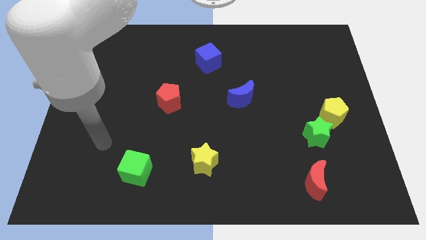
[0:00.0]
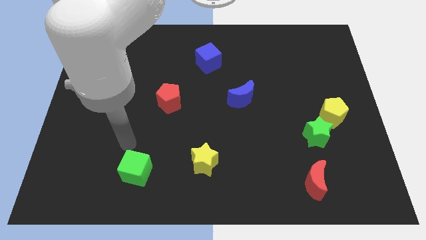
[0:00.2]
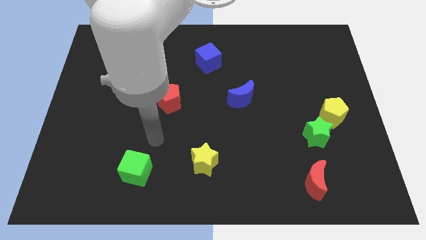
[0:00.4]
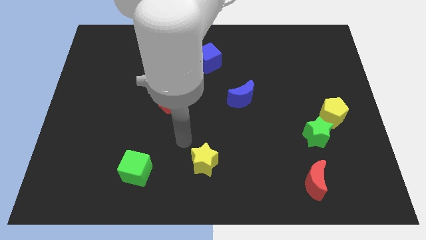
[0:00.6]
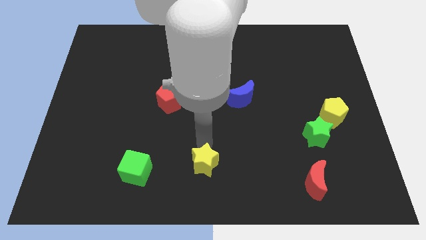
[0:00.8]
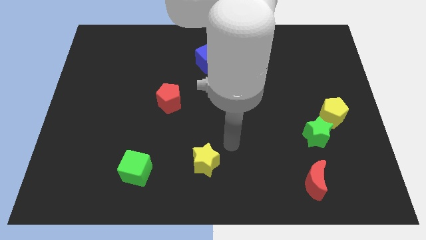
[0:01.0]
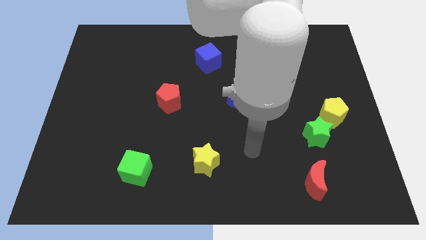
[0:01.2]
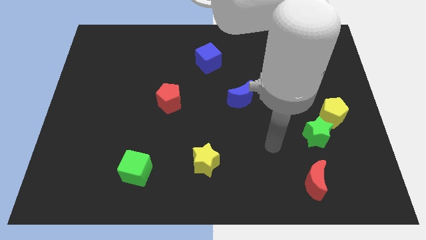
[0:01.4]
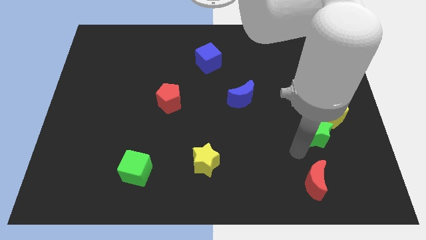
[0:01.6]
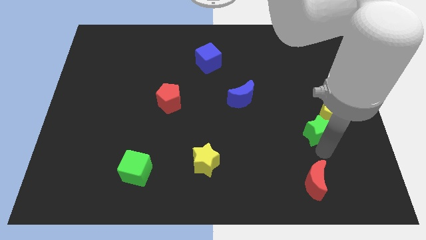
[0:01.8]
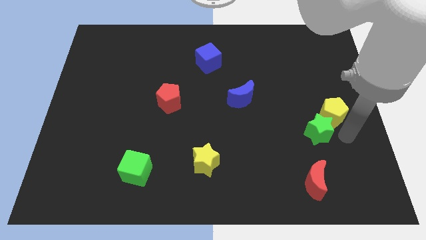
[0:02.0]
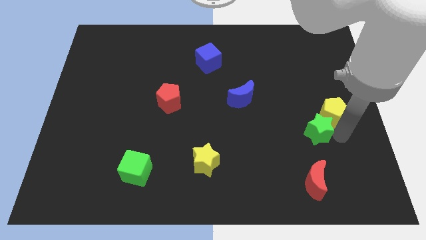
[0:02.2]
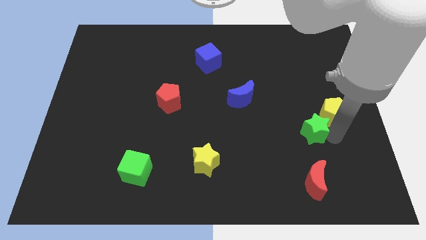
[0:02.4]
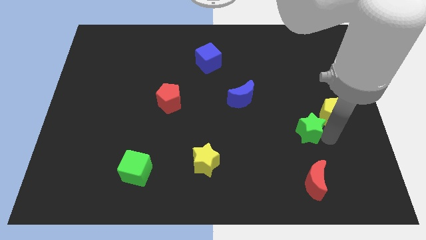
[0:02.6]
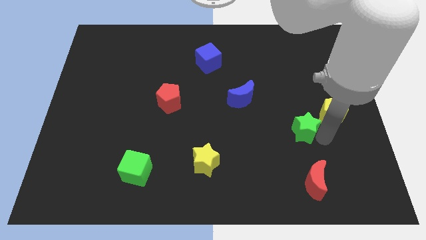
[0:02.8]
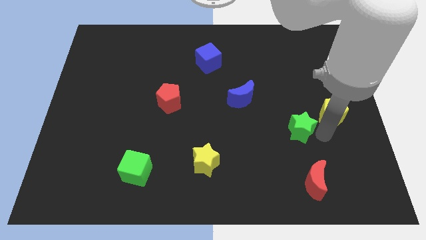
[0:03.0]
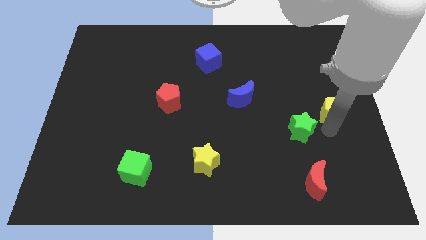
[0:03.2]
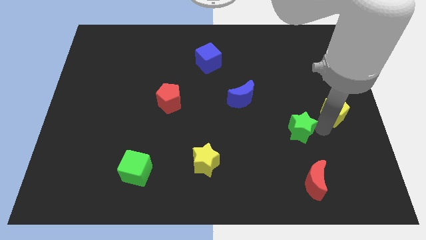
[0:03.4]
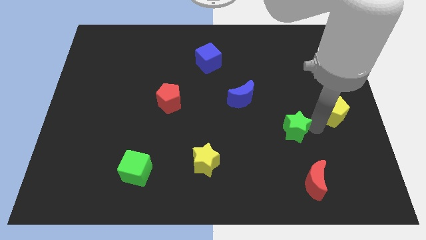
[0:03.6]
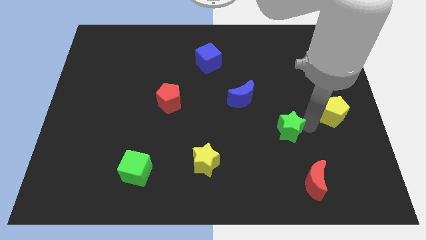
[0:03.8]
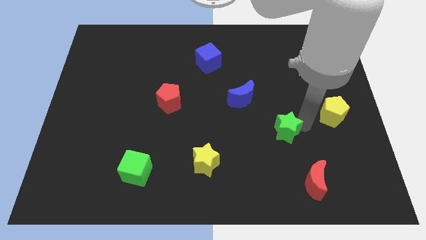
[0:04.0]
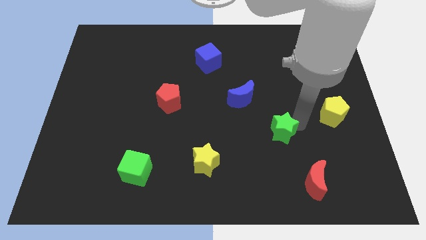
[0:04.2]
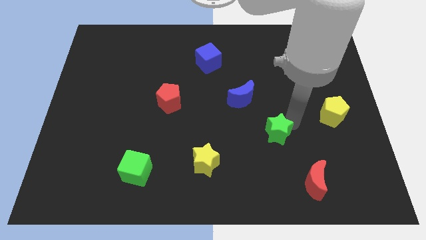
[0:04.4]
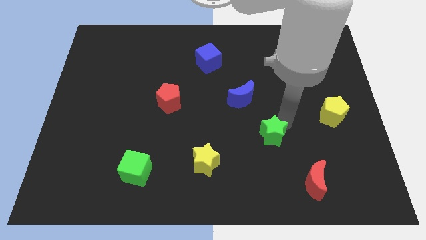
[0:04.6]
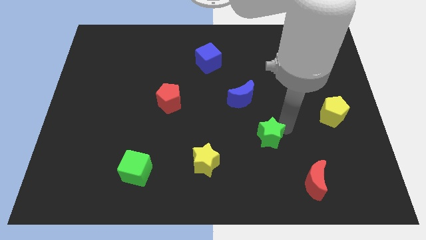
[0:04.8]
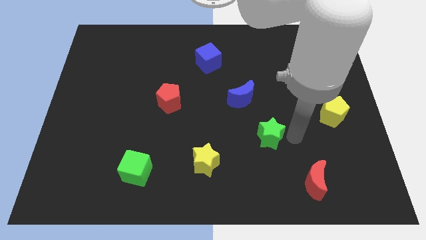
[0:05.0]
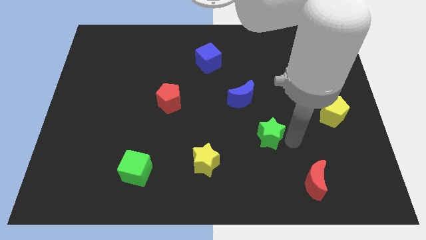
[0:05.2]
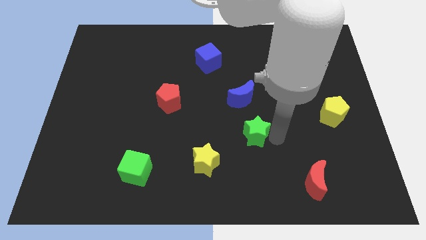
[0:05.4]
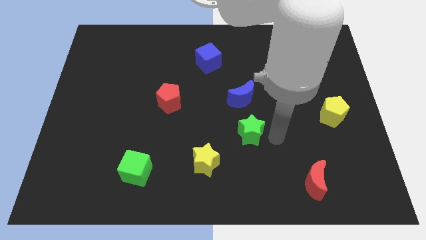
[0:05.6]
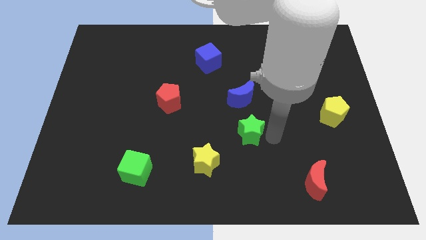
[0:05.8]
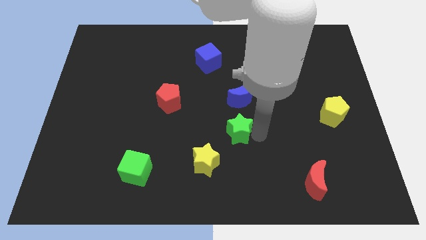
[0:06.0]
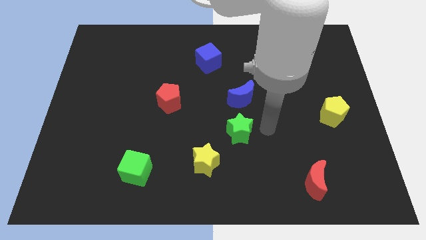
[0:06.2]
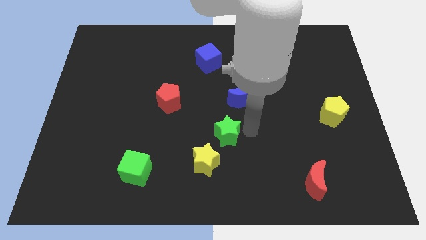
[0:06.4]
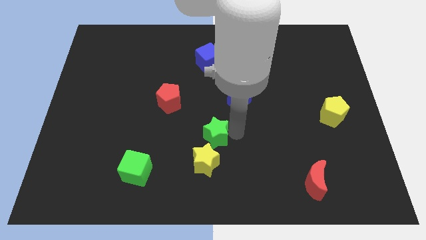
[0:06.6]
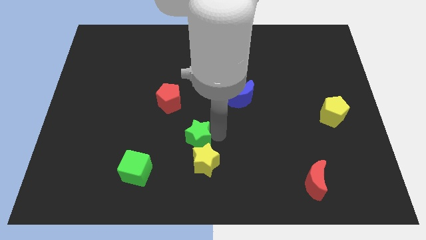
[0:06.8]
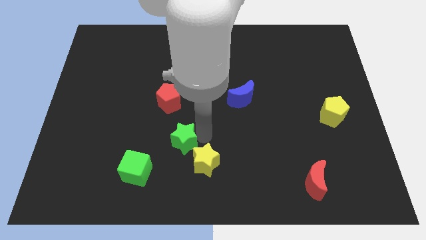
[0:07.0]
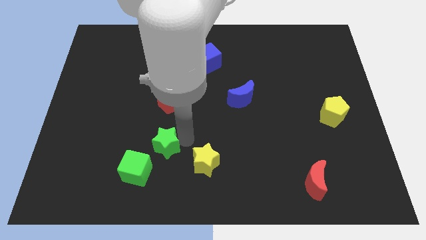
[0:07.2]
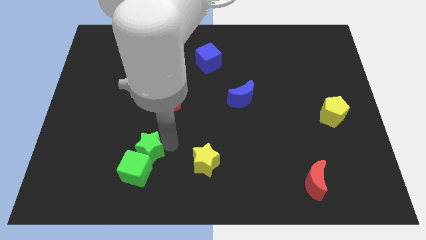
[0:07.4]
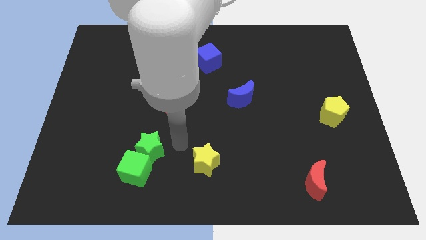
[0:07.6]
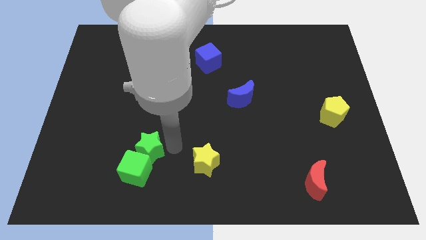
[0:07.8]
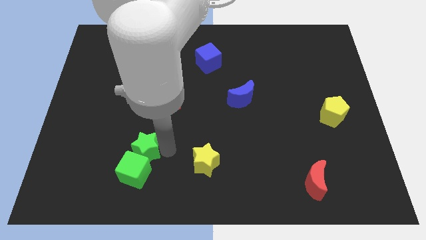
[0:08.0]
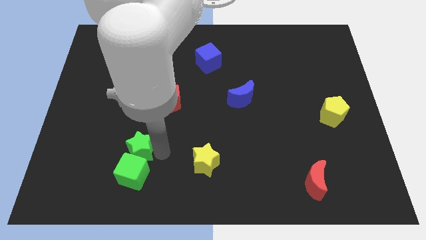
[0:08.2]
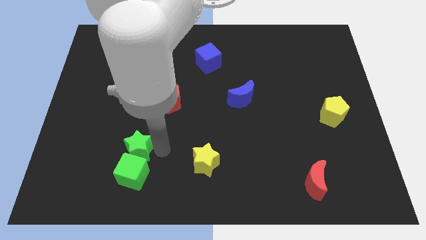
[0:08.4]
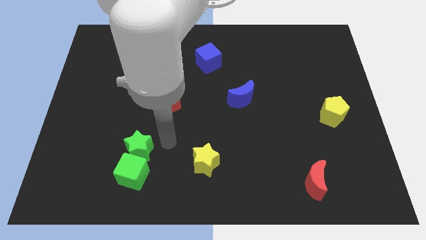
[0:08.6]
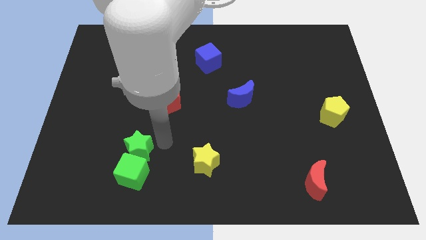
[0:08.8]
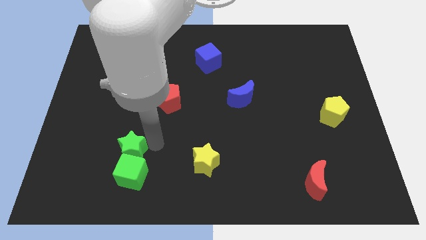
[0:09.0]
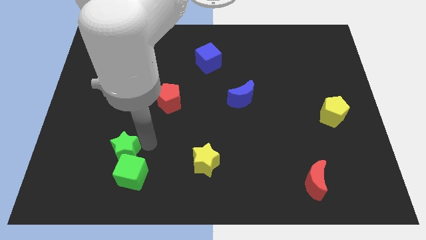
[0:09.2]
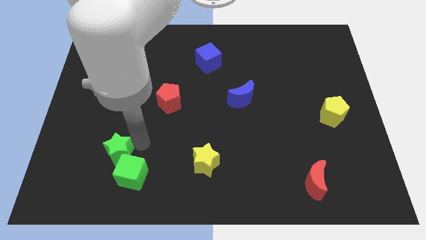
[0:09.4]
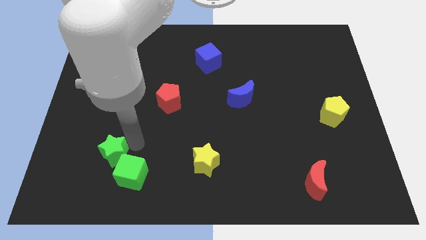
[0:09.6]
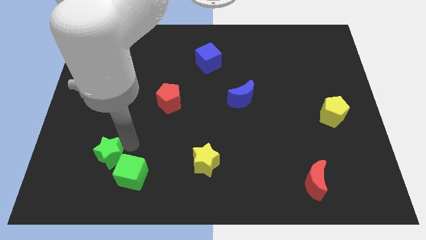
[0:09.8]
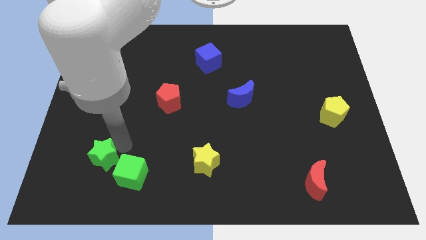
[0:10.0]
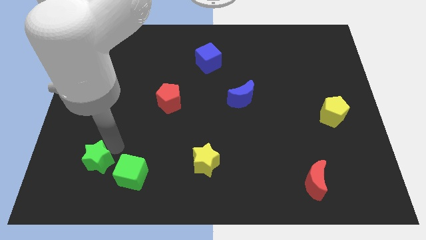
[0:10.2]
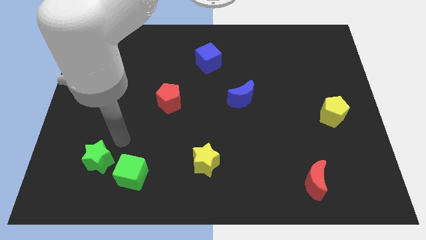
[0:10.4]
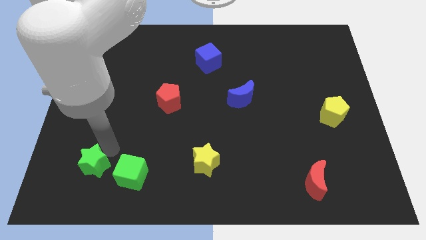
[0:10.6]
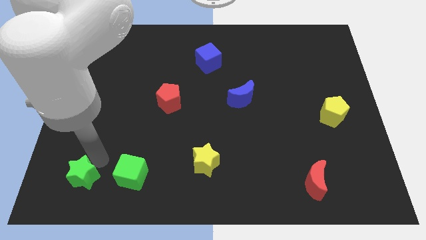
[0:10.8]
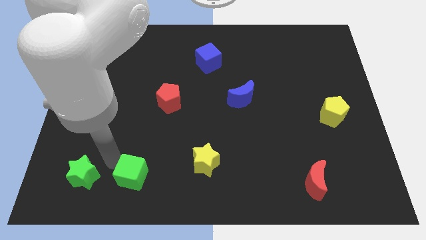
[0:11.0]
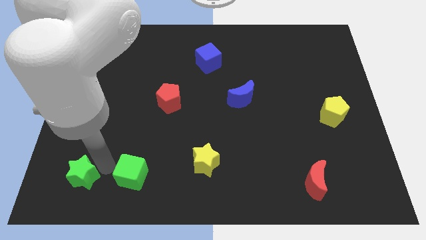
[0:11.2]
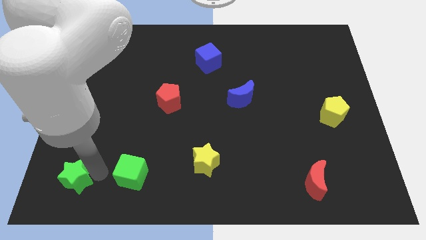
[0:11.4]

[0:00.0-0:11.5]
push the green star to the bottom left corner
